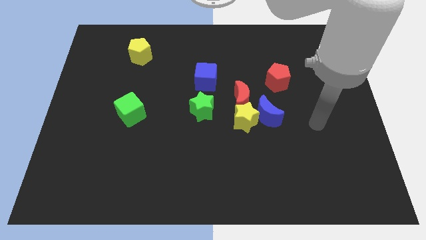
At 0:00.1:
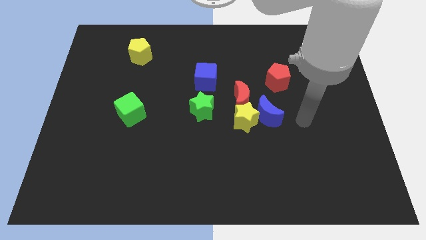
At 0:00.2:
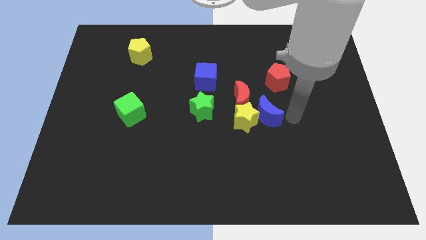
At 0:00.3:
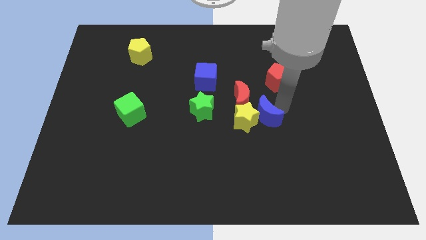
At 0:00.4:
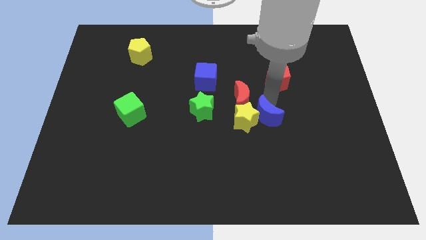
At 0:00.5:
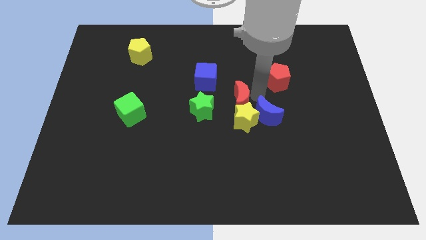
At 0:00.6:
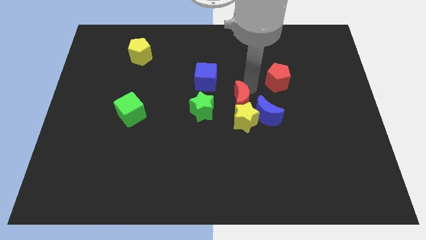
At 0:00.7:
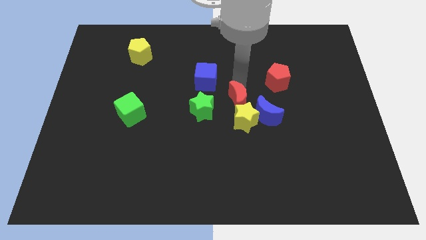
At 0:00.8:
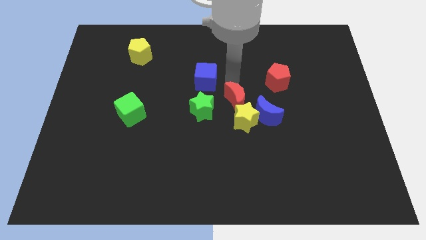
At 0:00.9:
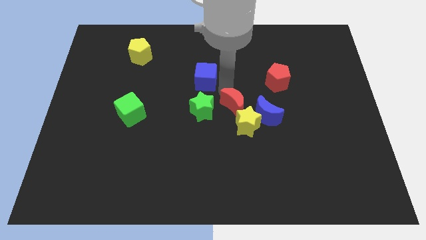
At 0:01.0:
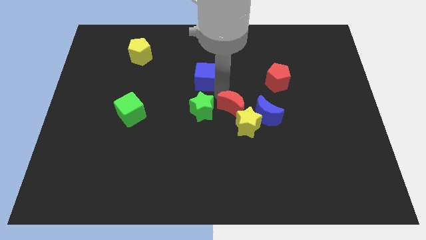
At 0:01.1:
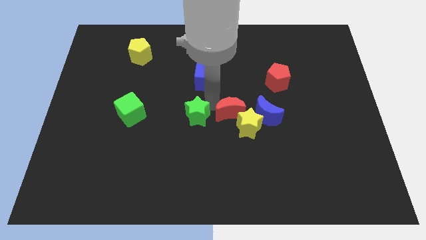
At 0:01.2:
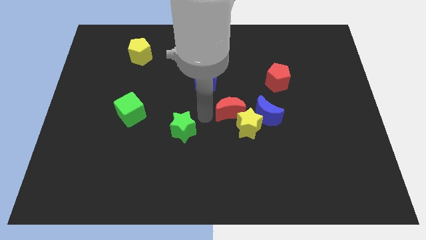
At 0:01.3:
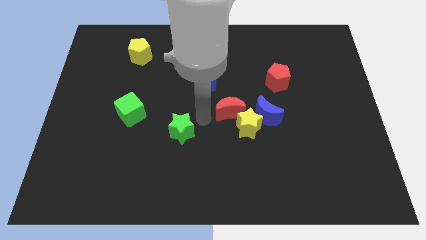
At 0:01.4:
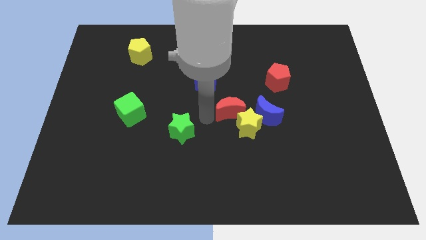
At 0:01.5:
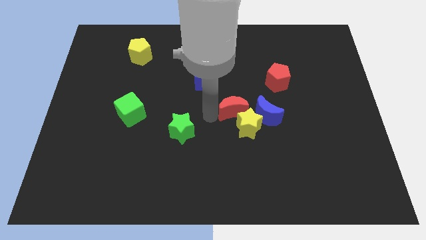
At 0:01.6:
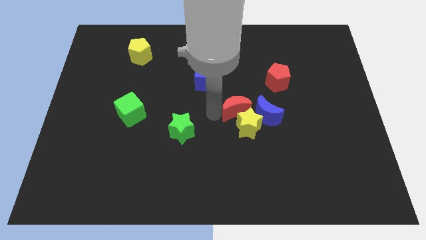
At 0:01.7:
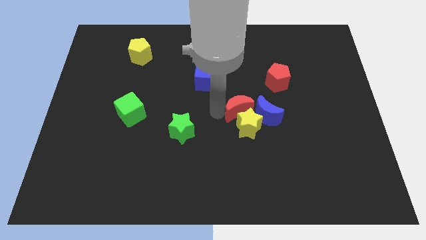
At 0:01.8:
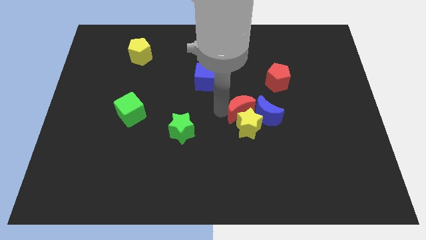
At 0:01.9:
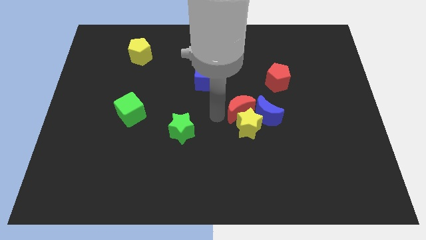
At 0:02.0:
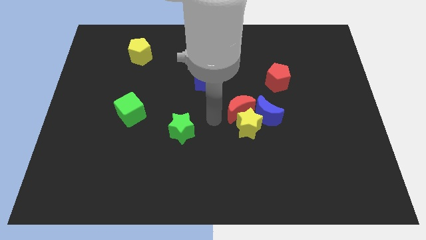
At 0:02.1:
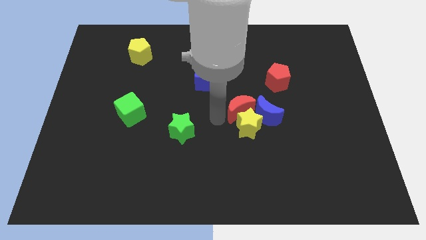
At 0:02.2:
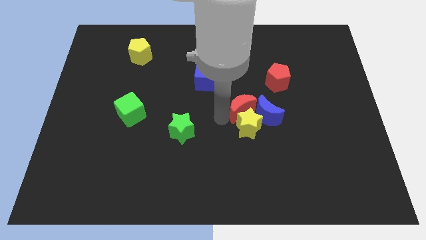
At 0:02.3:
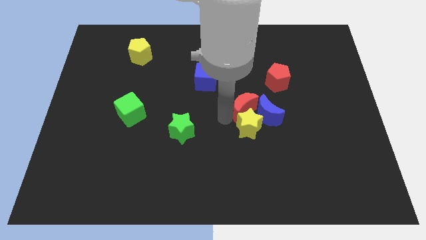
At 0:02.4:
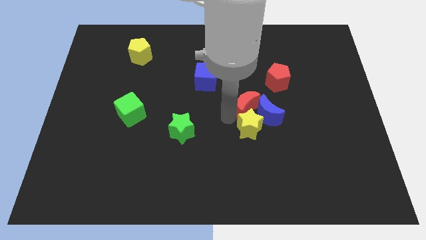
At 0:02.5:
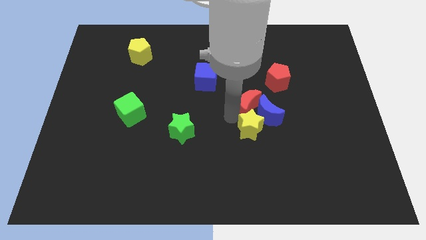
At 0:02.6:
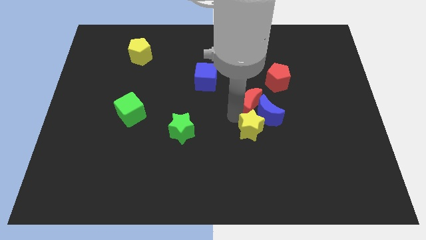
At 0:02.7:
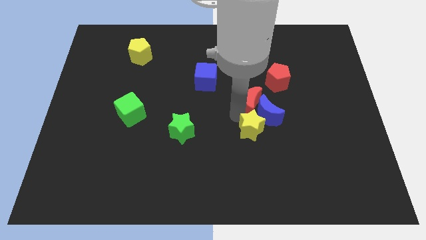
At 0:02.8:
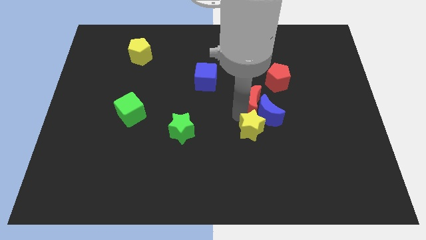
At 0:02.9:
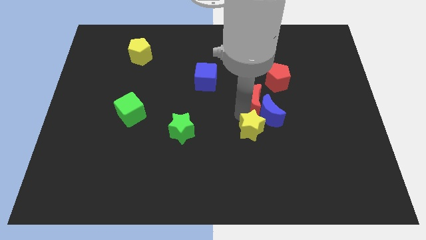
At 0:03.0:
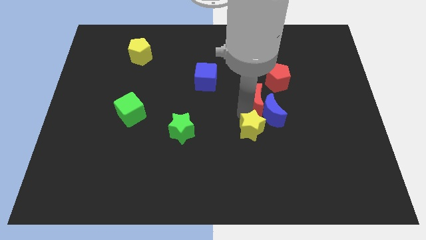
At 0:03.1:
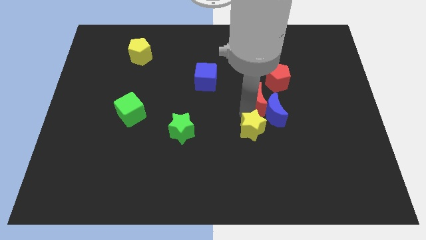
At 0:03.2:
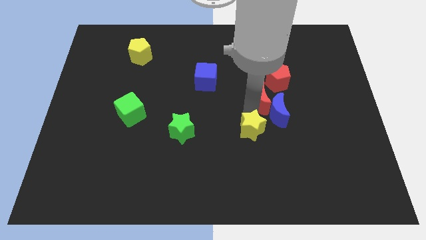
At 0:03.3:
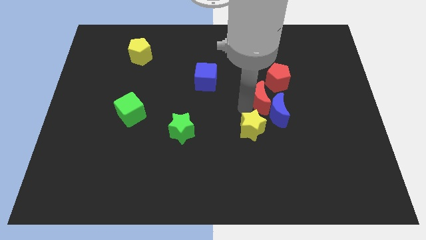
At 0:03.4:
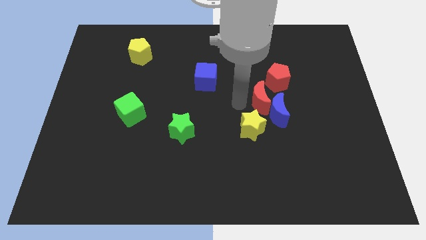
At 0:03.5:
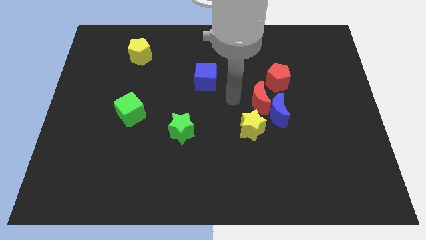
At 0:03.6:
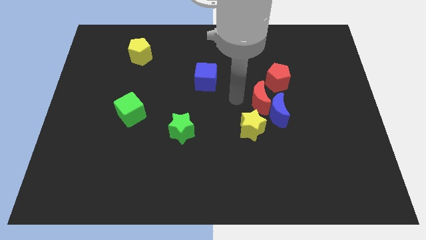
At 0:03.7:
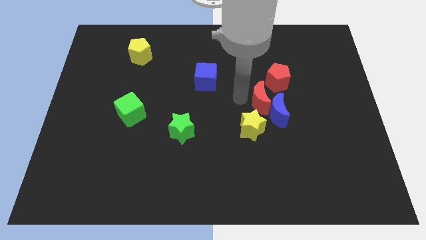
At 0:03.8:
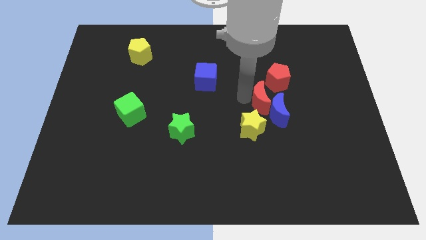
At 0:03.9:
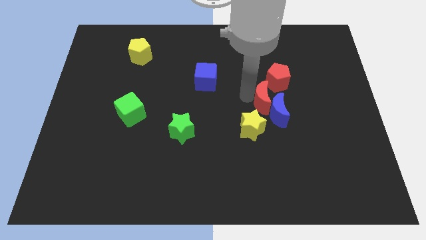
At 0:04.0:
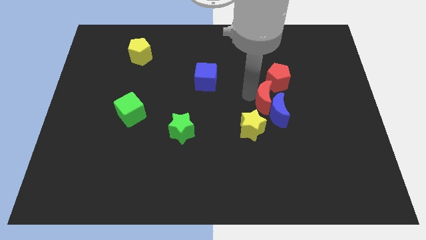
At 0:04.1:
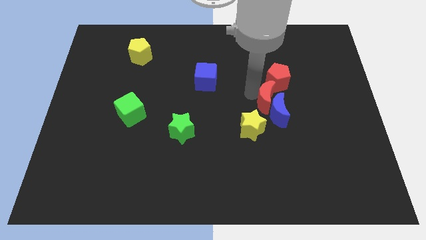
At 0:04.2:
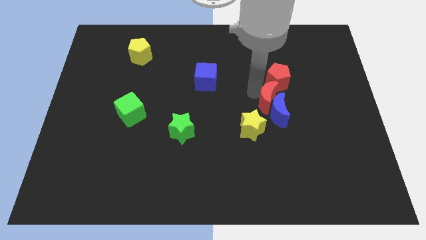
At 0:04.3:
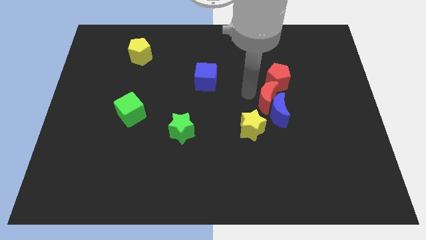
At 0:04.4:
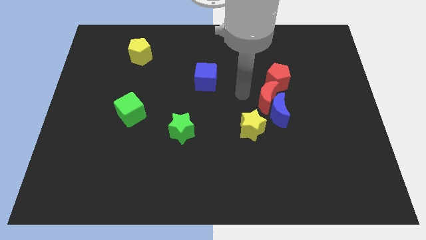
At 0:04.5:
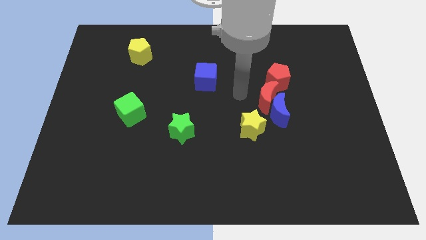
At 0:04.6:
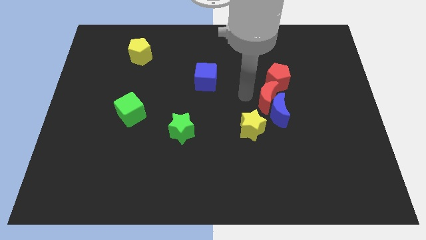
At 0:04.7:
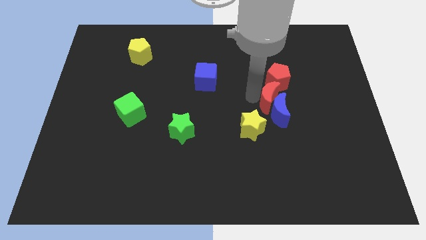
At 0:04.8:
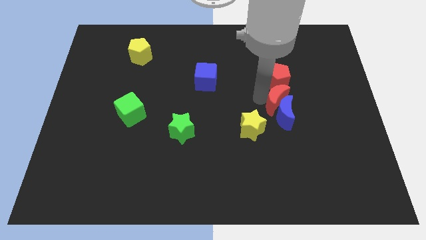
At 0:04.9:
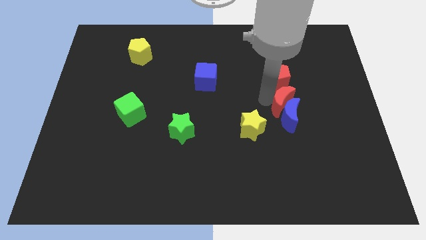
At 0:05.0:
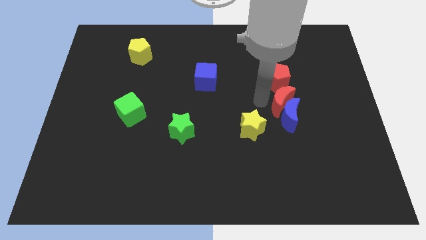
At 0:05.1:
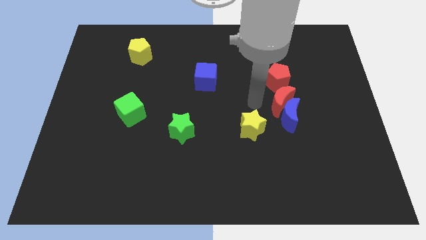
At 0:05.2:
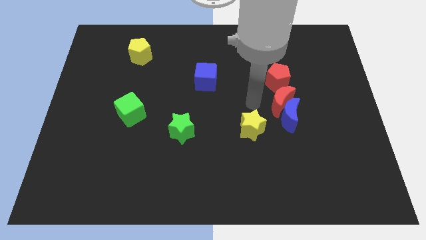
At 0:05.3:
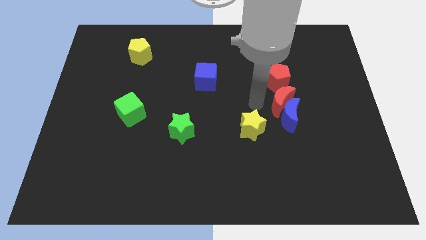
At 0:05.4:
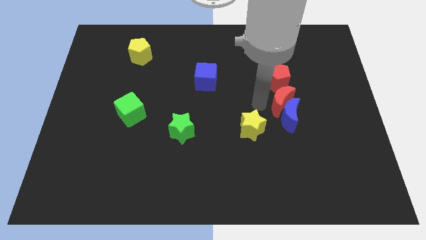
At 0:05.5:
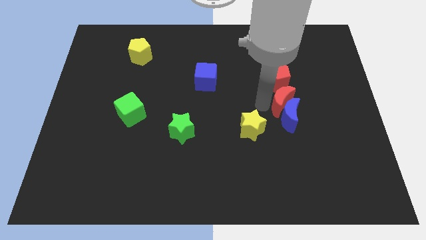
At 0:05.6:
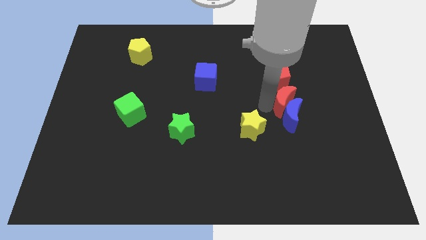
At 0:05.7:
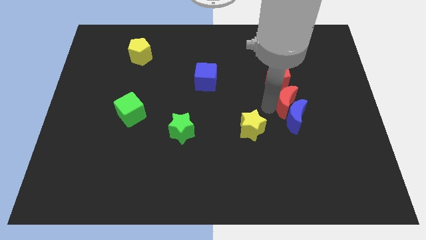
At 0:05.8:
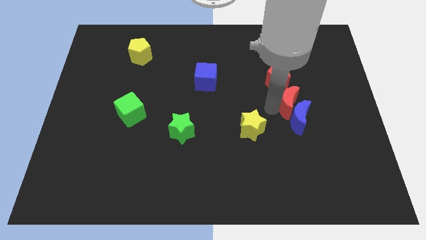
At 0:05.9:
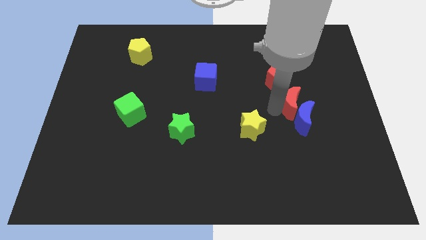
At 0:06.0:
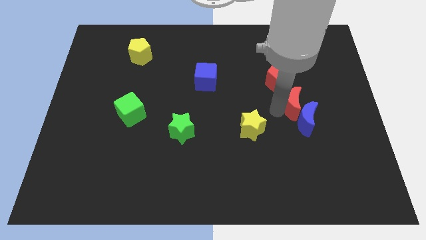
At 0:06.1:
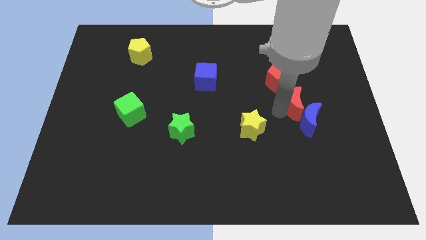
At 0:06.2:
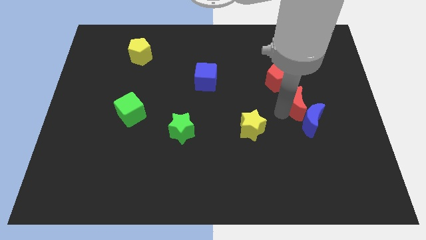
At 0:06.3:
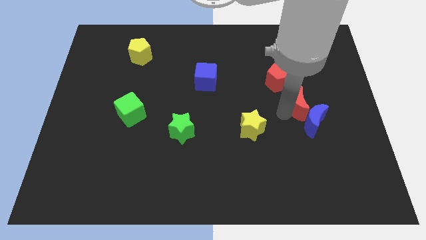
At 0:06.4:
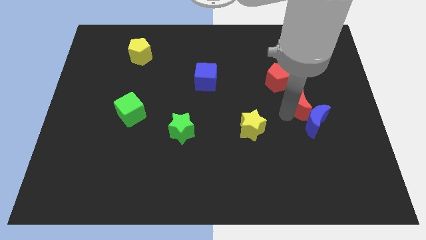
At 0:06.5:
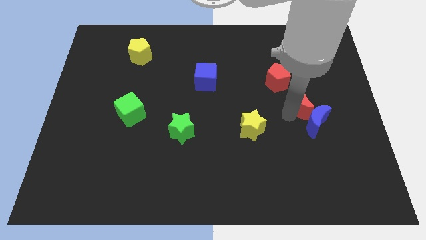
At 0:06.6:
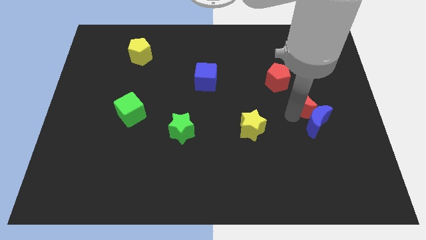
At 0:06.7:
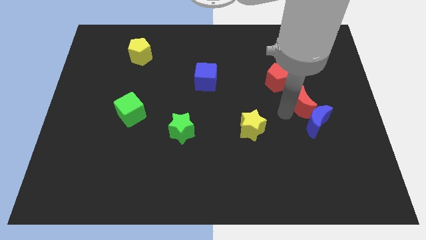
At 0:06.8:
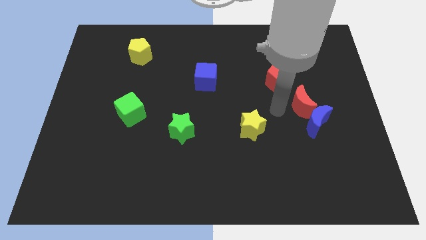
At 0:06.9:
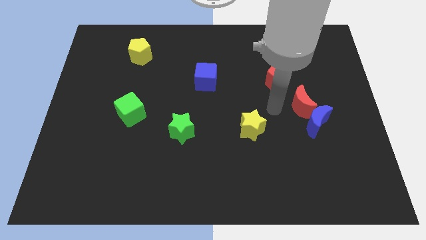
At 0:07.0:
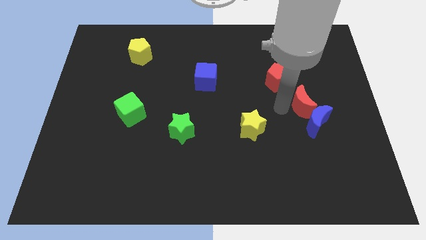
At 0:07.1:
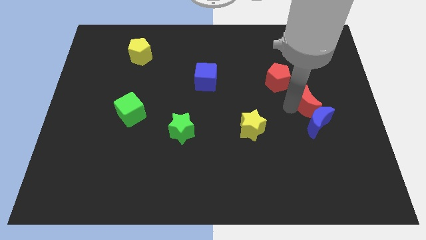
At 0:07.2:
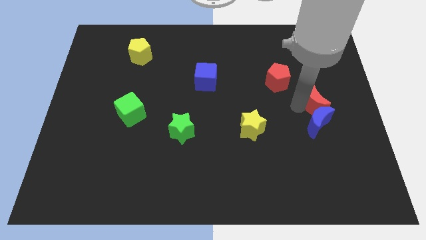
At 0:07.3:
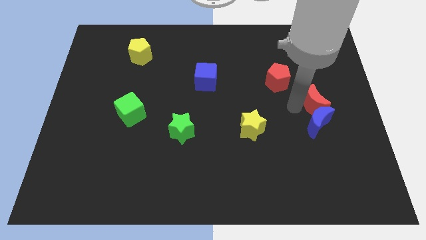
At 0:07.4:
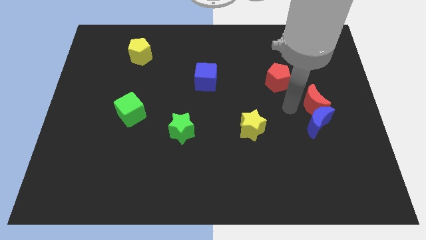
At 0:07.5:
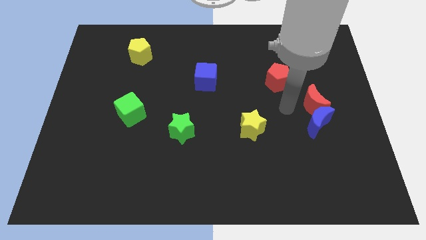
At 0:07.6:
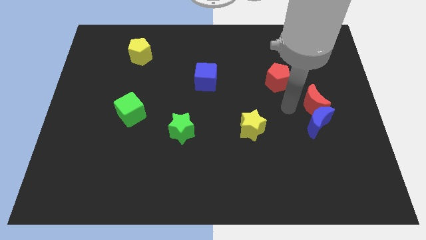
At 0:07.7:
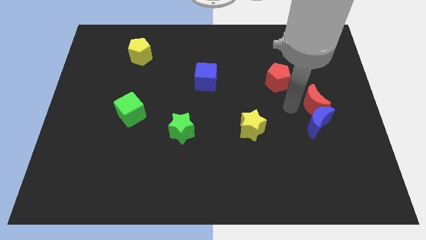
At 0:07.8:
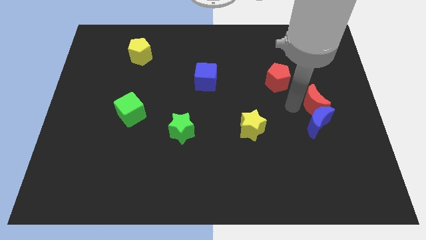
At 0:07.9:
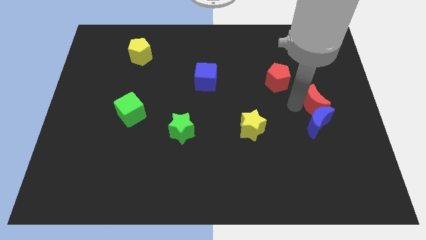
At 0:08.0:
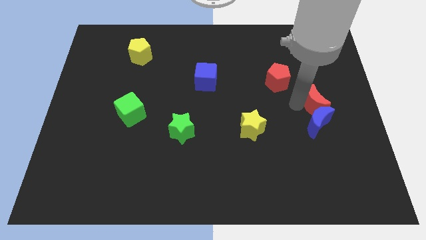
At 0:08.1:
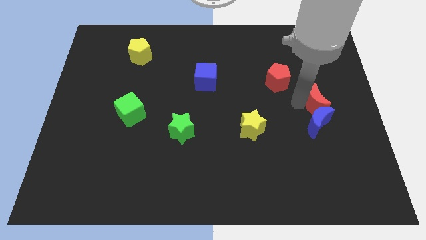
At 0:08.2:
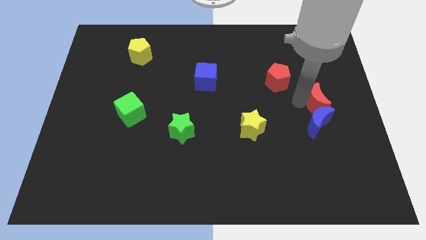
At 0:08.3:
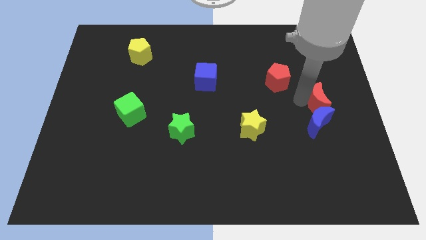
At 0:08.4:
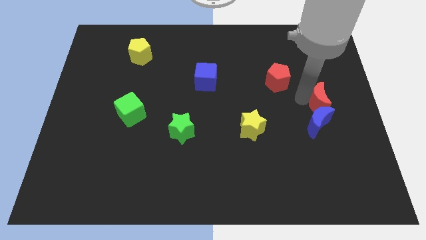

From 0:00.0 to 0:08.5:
slide the red moon to the right side
